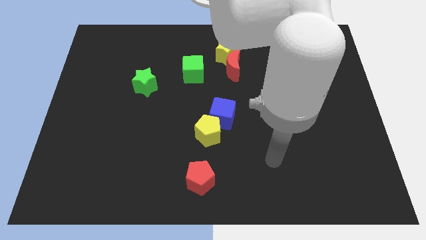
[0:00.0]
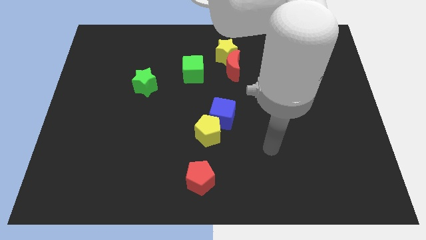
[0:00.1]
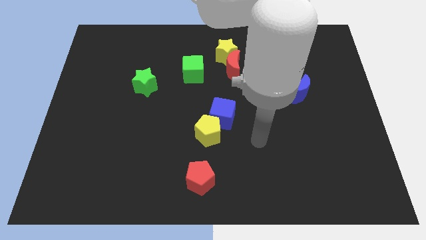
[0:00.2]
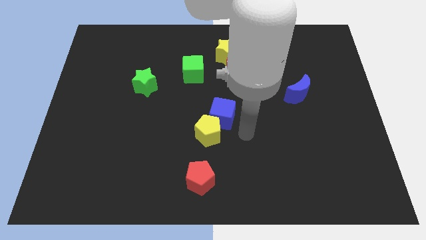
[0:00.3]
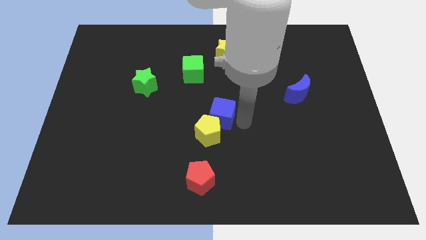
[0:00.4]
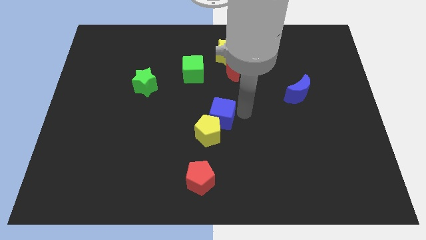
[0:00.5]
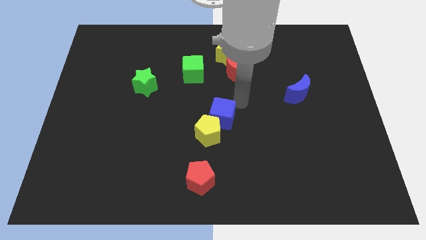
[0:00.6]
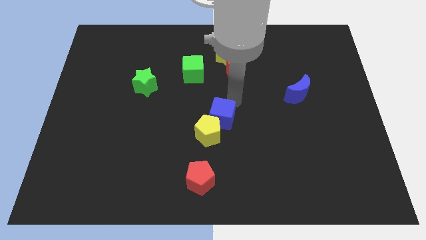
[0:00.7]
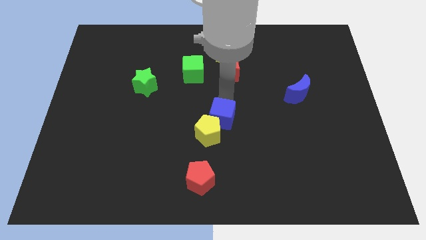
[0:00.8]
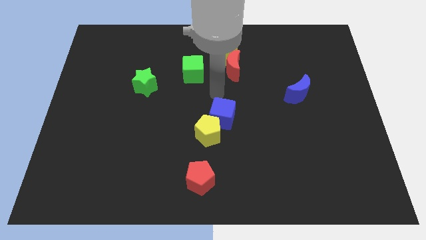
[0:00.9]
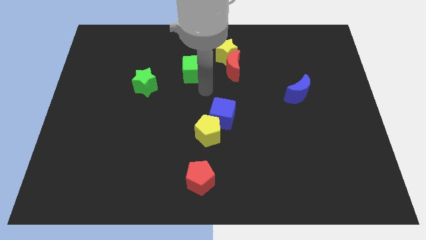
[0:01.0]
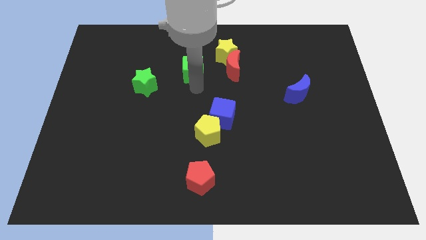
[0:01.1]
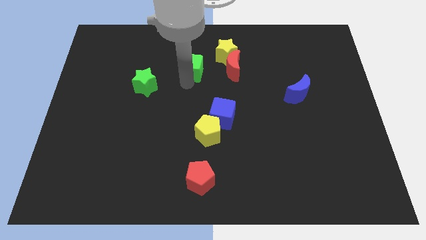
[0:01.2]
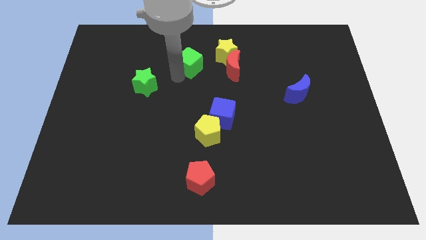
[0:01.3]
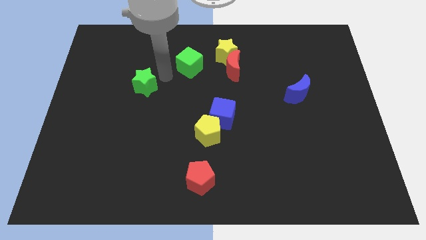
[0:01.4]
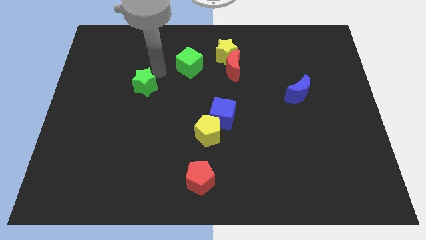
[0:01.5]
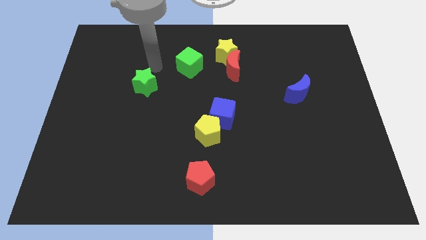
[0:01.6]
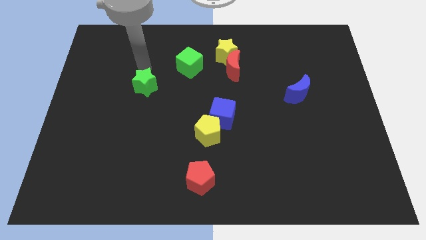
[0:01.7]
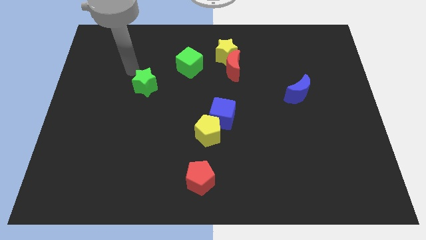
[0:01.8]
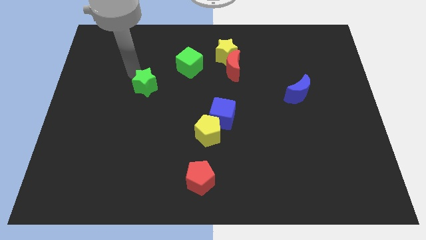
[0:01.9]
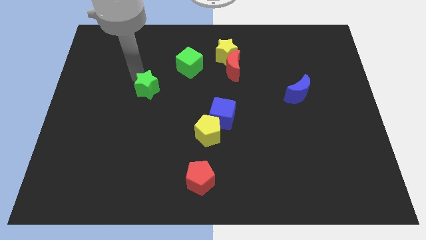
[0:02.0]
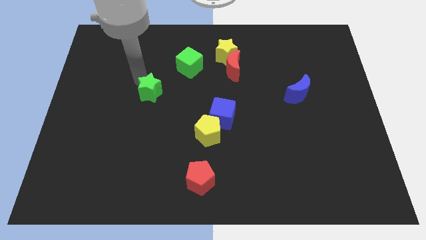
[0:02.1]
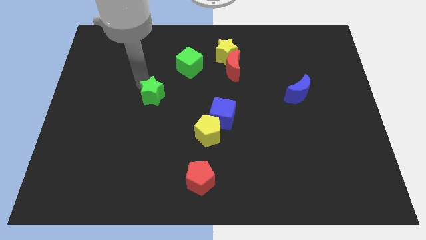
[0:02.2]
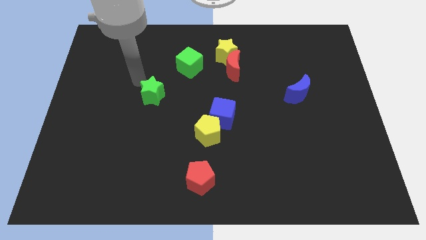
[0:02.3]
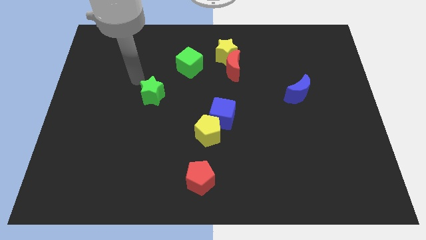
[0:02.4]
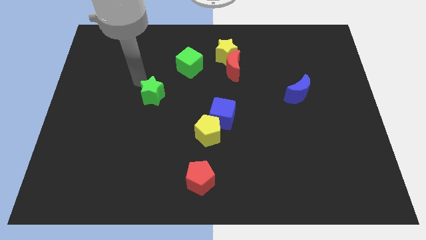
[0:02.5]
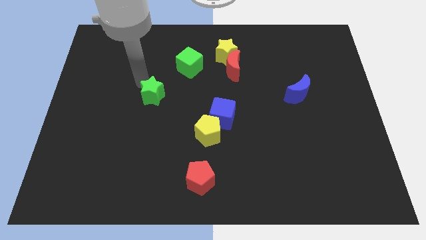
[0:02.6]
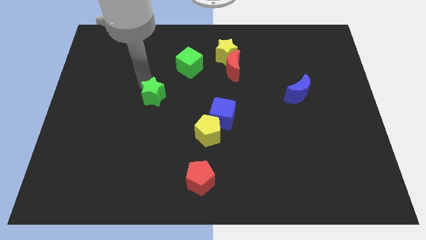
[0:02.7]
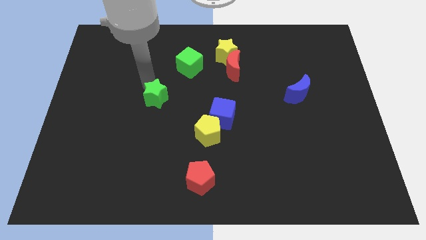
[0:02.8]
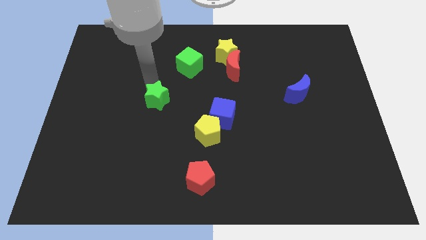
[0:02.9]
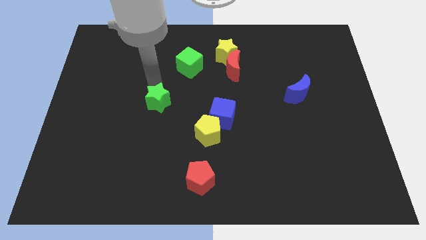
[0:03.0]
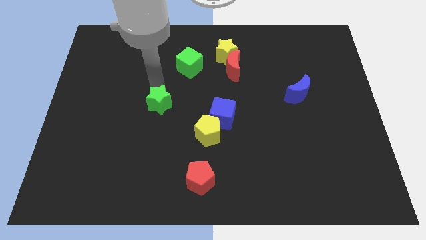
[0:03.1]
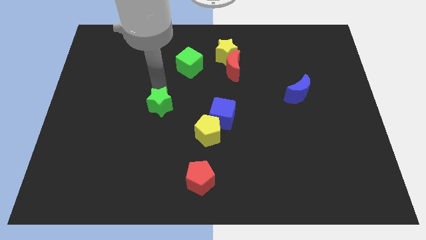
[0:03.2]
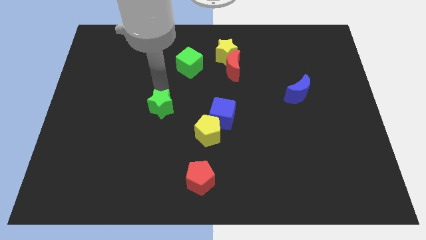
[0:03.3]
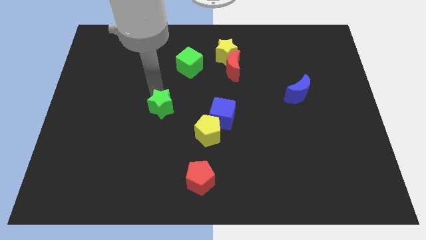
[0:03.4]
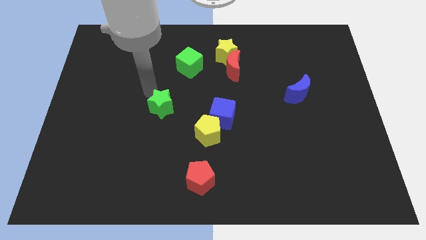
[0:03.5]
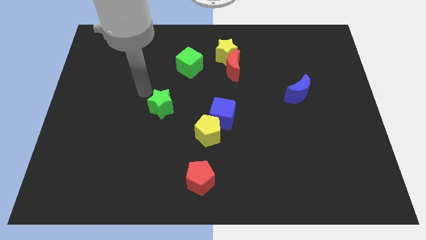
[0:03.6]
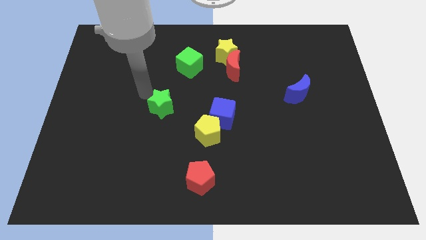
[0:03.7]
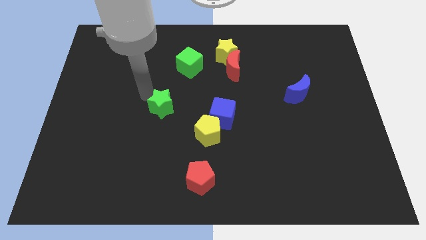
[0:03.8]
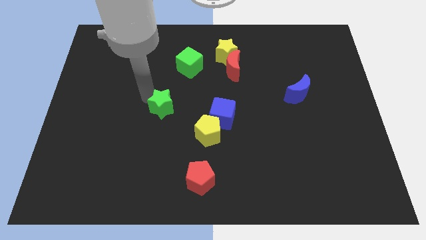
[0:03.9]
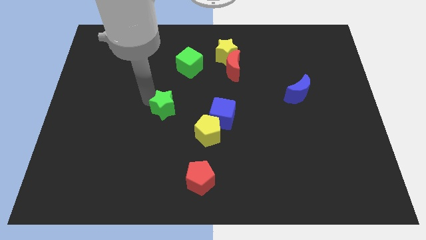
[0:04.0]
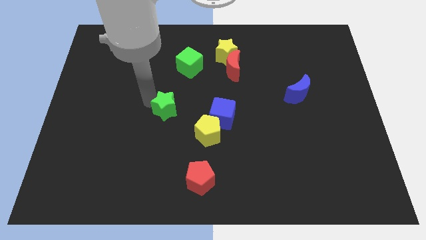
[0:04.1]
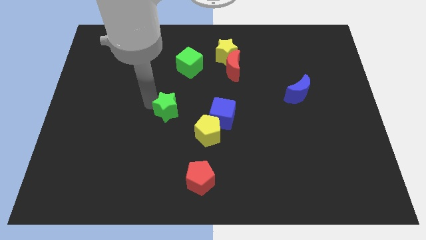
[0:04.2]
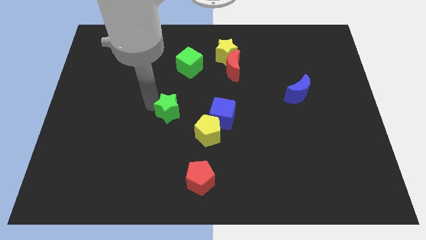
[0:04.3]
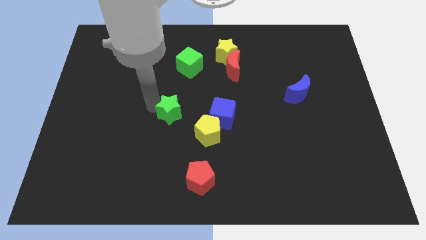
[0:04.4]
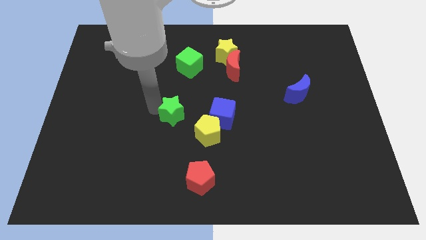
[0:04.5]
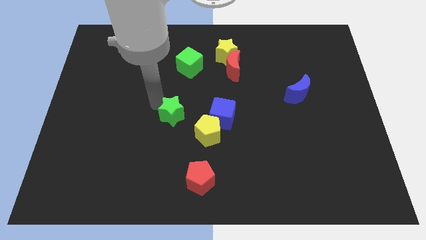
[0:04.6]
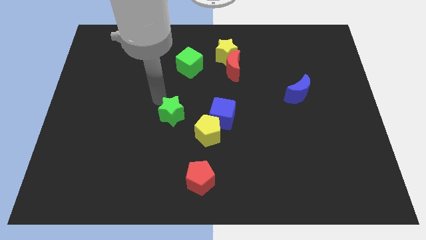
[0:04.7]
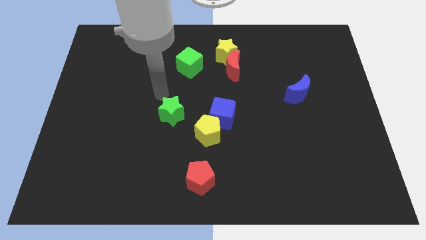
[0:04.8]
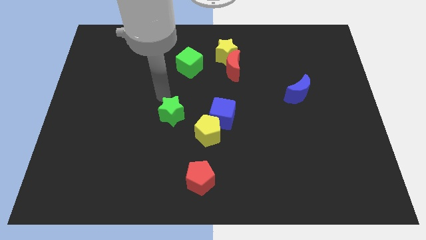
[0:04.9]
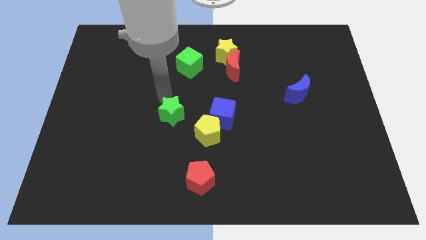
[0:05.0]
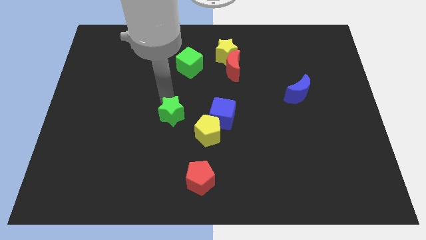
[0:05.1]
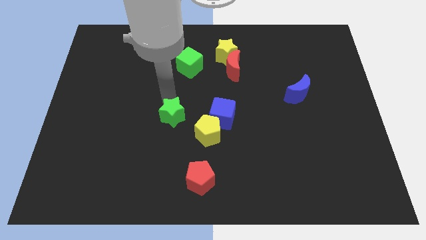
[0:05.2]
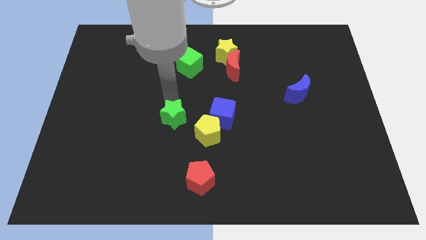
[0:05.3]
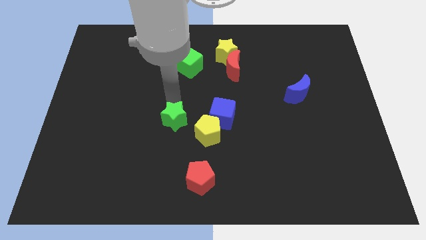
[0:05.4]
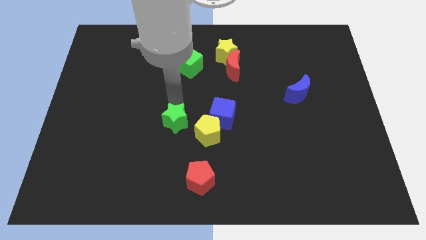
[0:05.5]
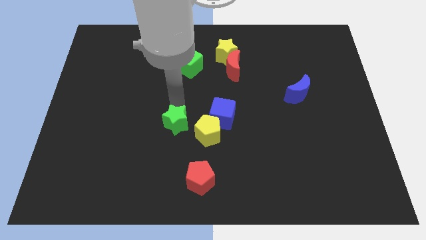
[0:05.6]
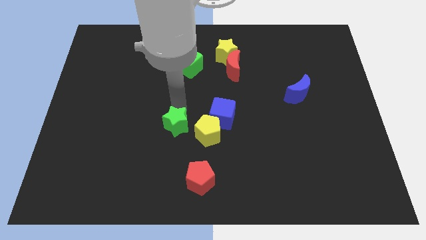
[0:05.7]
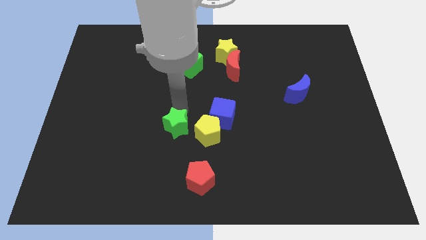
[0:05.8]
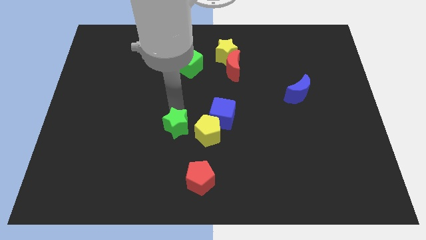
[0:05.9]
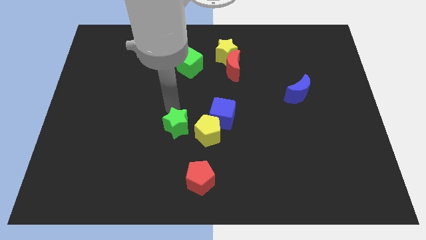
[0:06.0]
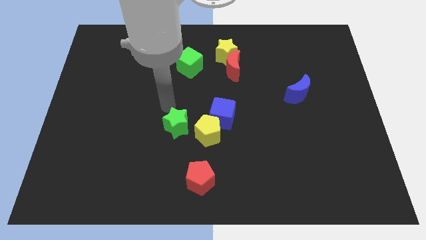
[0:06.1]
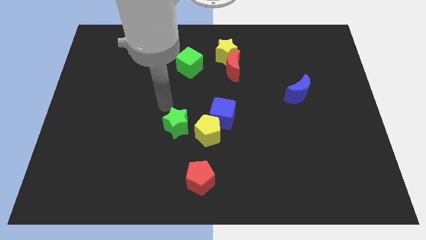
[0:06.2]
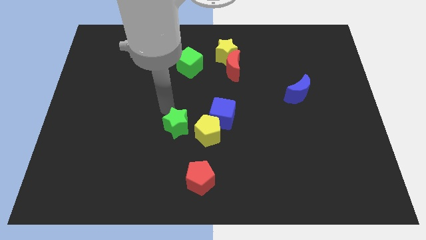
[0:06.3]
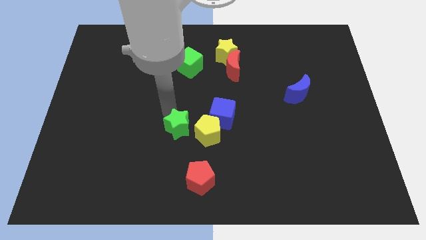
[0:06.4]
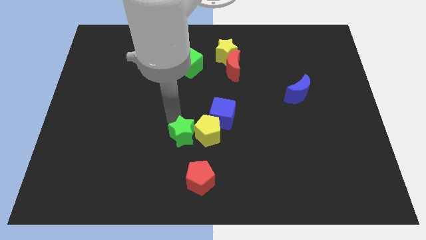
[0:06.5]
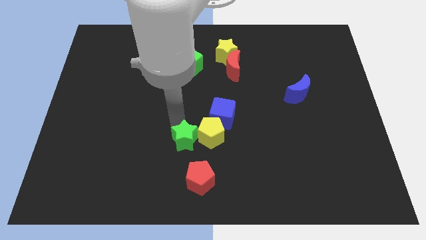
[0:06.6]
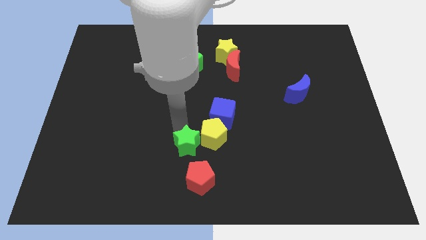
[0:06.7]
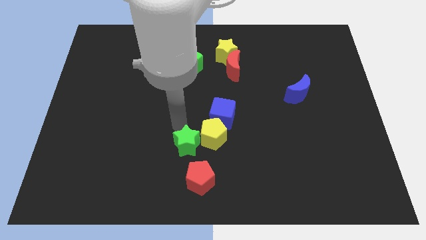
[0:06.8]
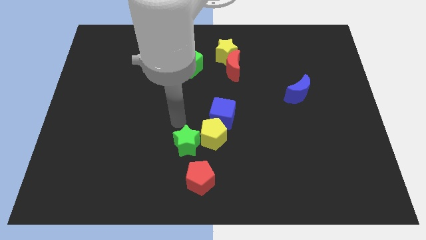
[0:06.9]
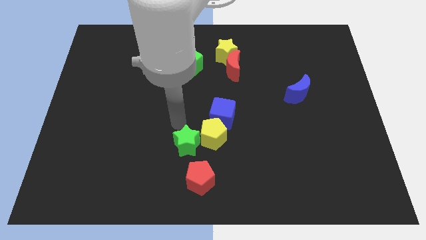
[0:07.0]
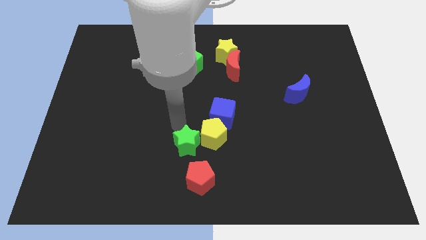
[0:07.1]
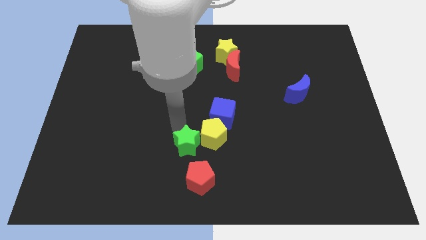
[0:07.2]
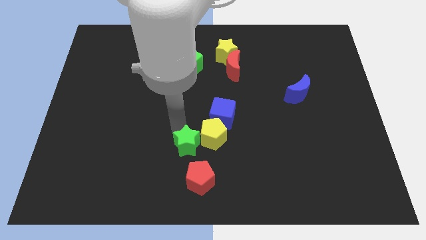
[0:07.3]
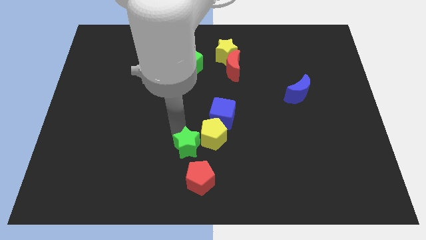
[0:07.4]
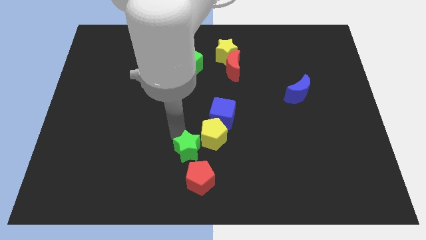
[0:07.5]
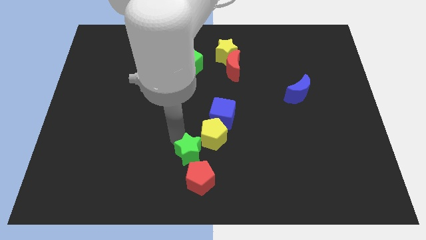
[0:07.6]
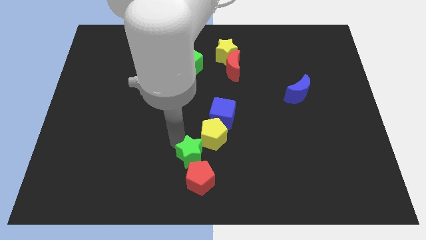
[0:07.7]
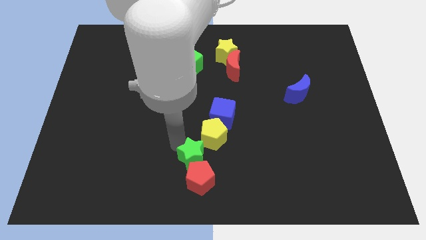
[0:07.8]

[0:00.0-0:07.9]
move the green star next to the red pentagon
